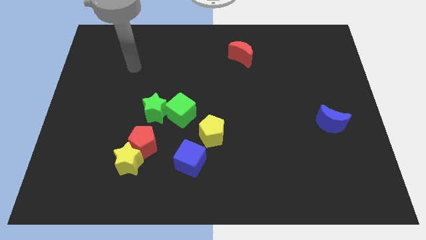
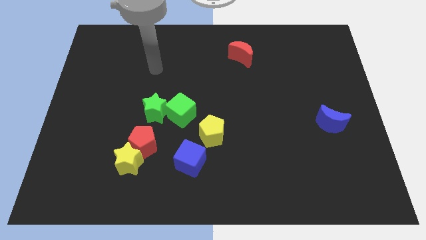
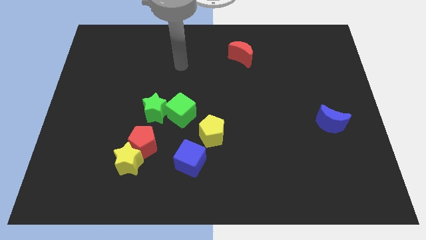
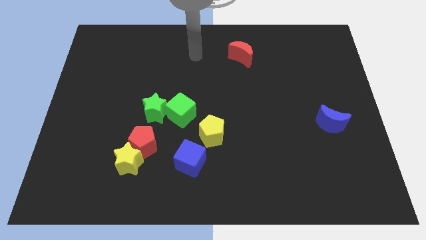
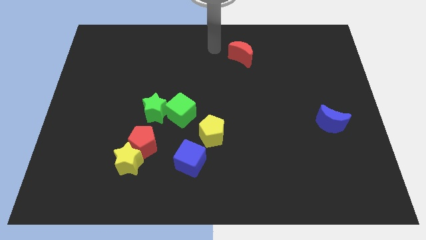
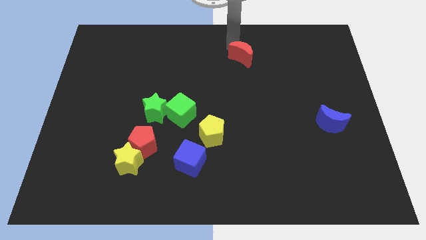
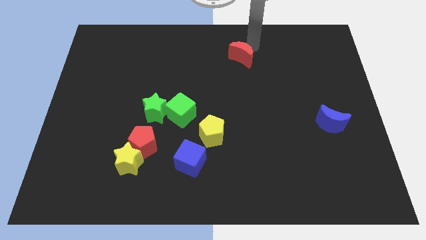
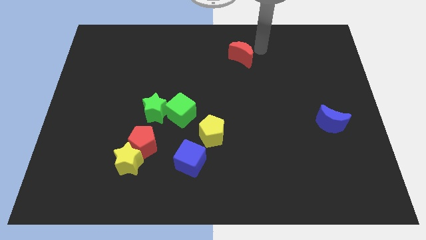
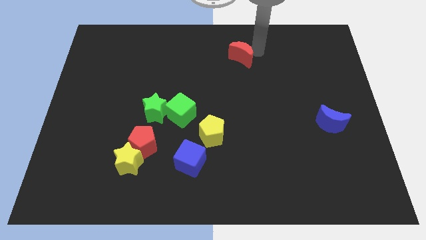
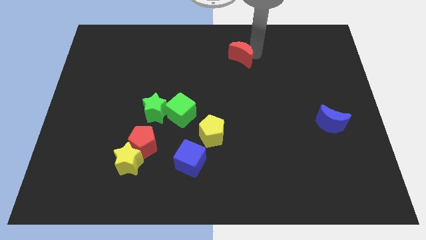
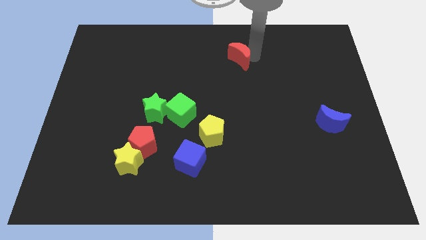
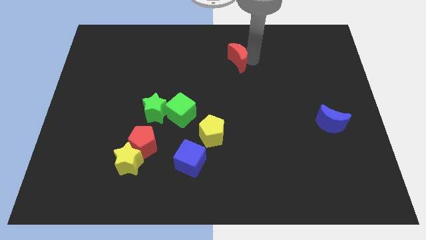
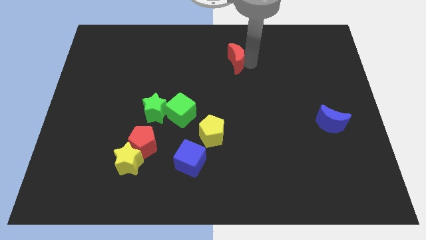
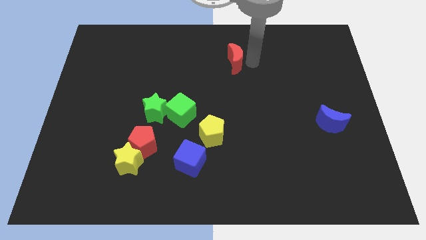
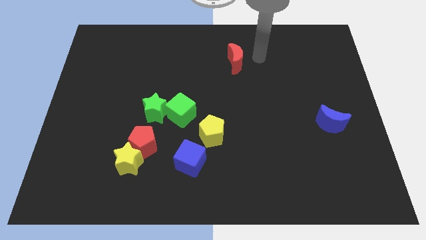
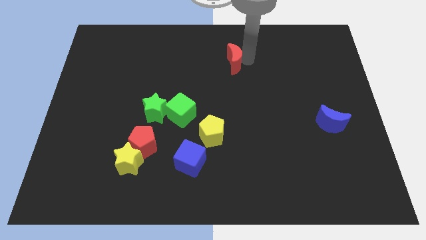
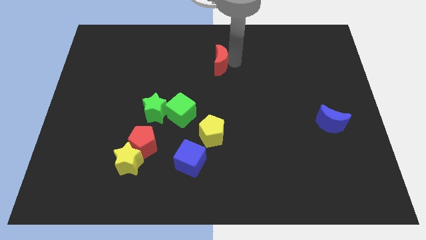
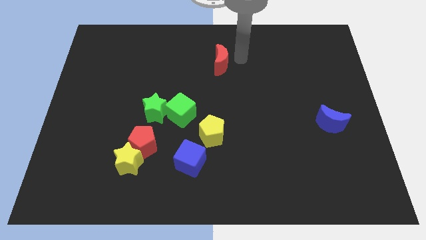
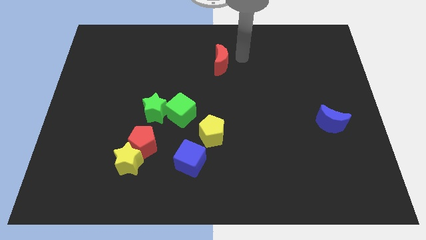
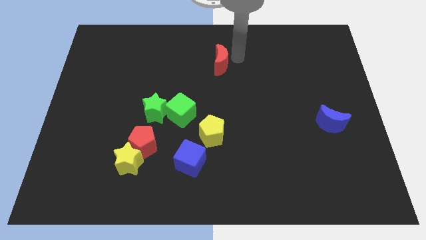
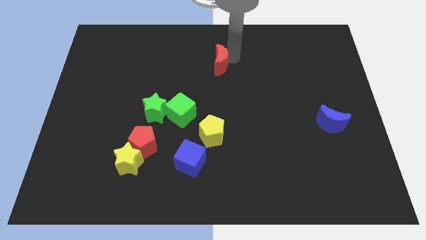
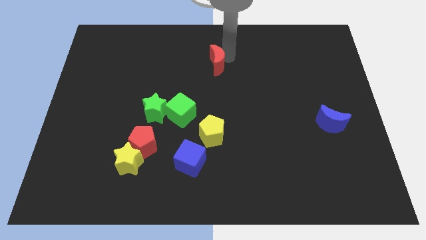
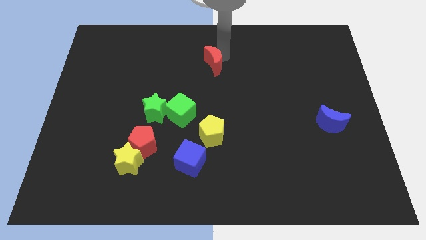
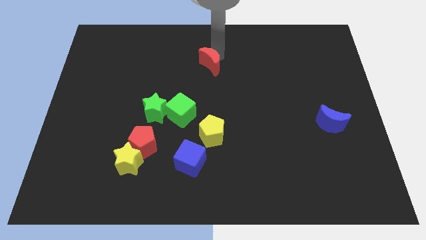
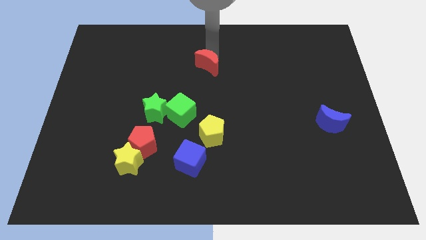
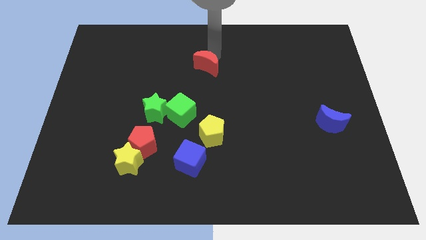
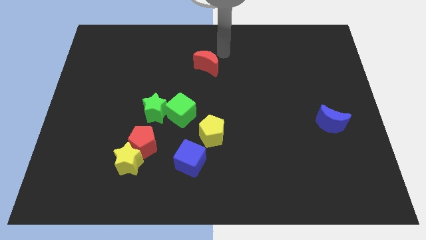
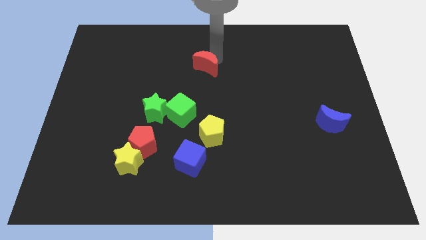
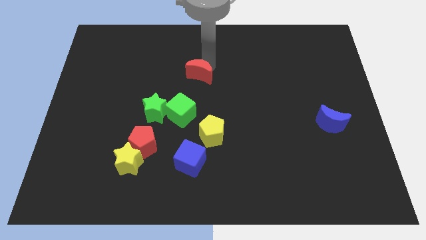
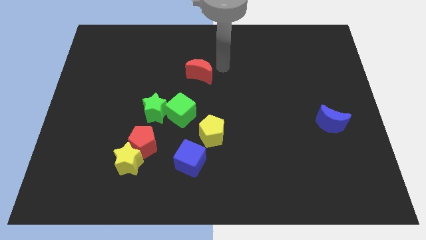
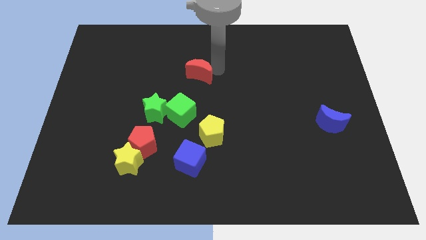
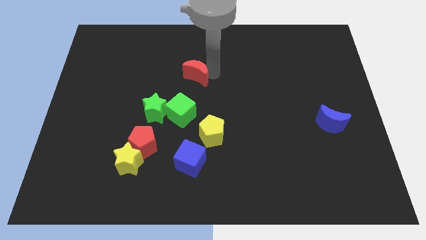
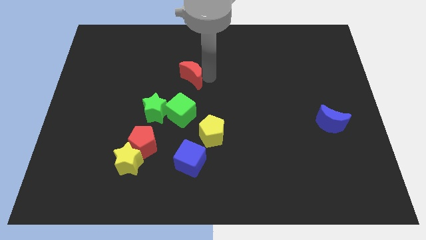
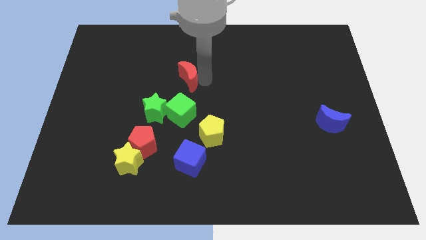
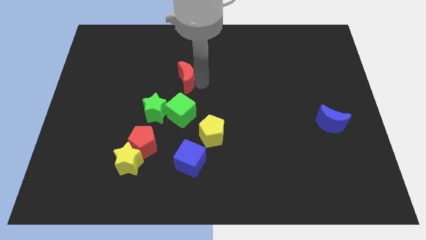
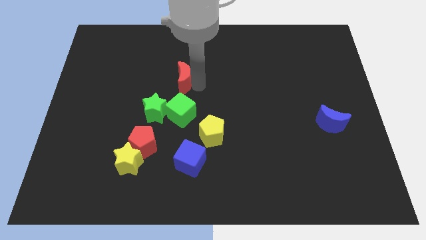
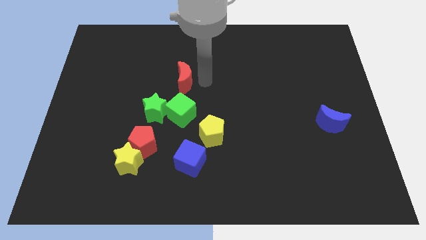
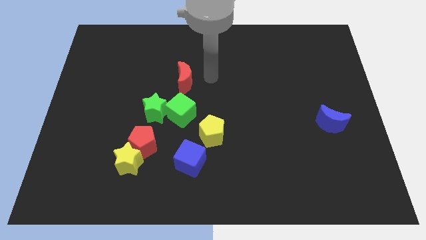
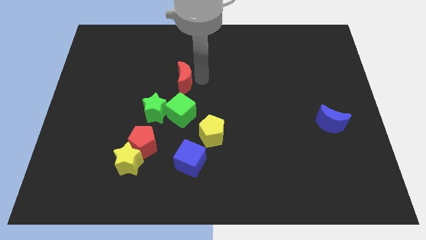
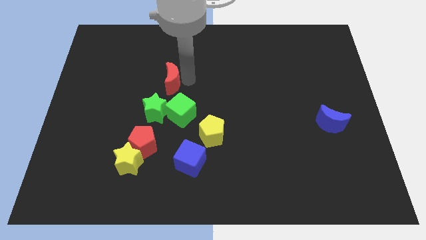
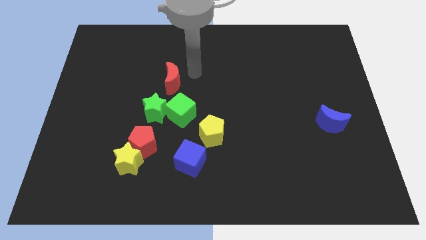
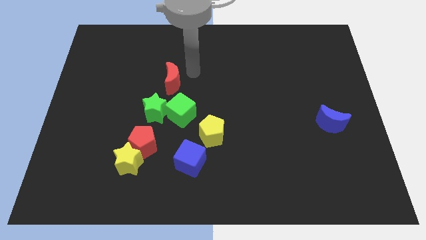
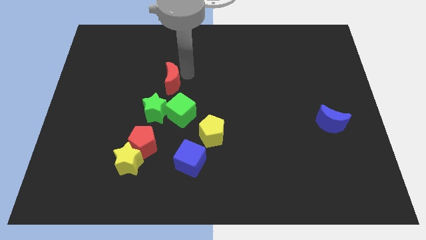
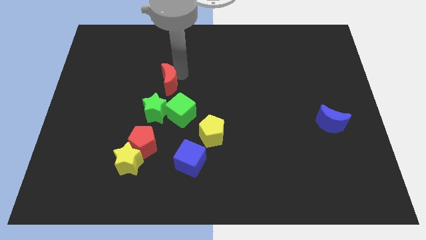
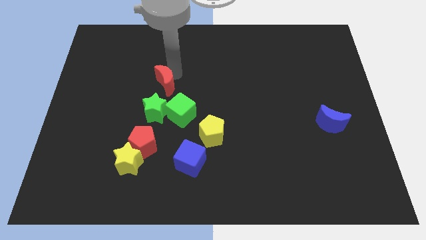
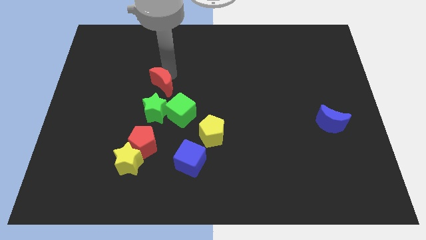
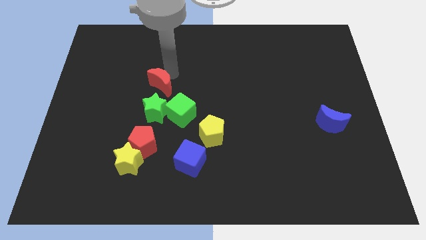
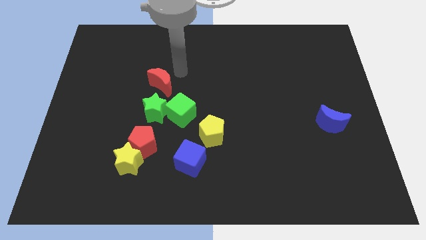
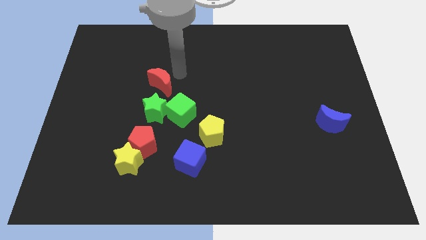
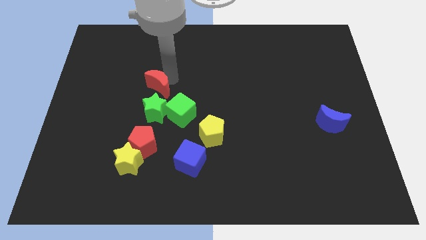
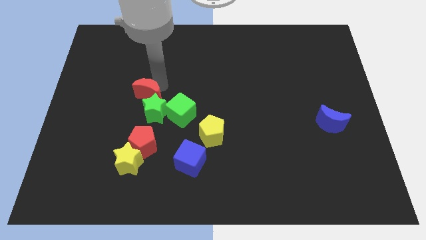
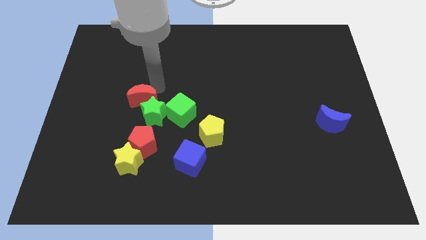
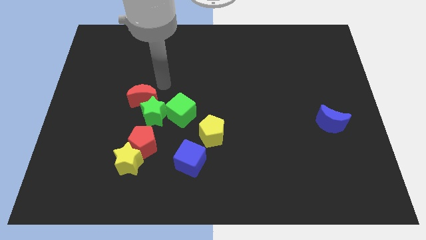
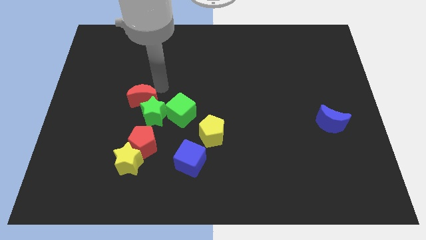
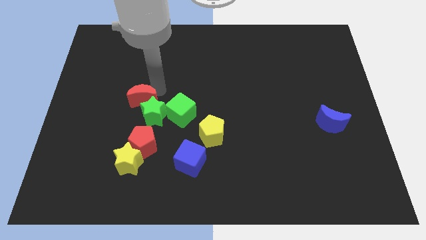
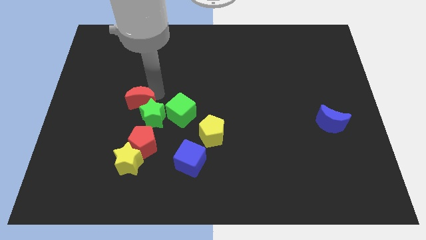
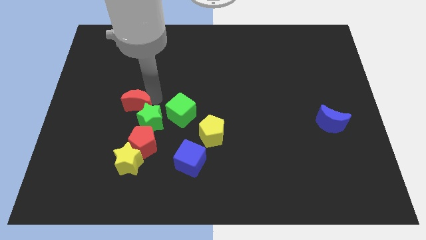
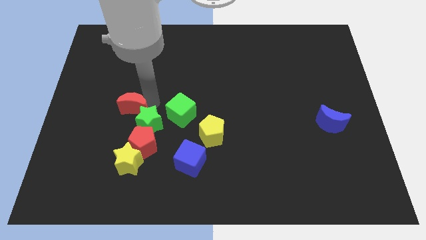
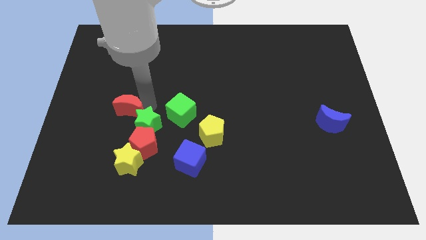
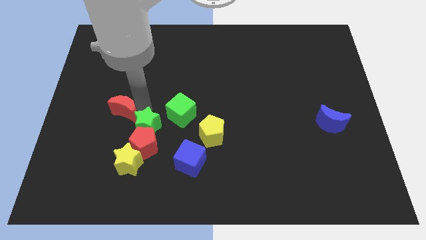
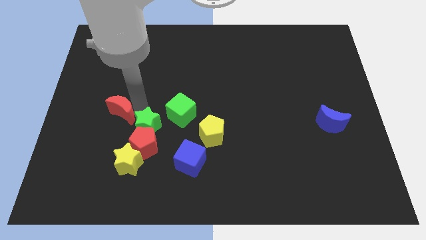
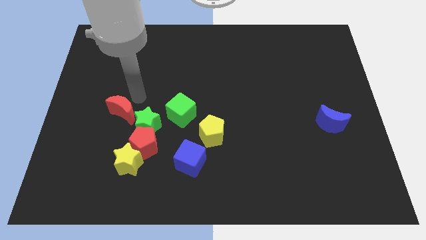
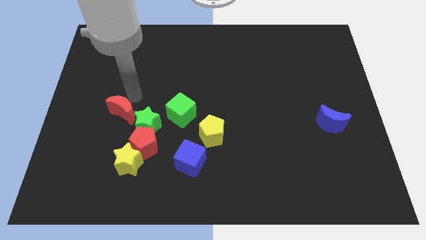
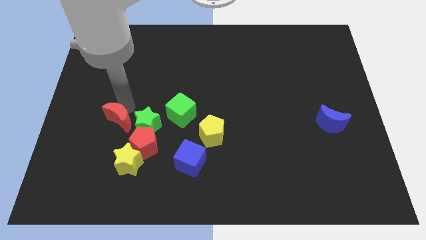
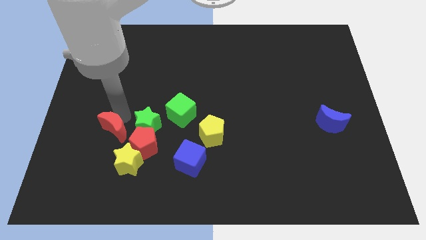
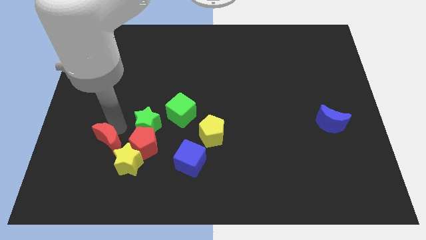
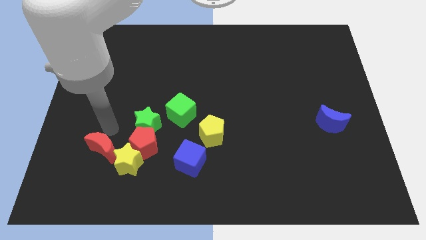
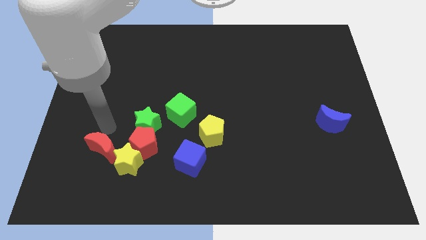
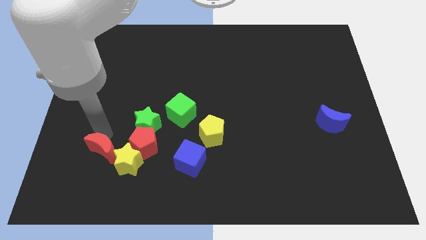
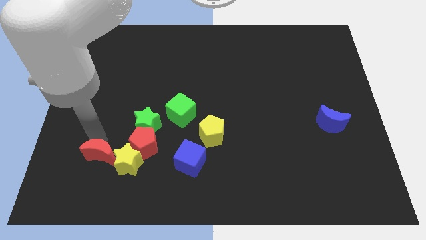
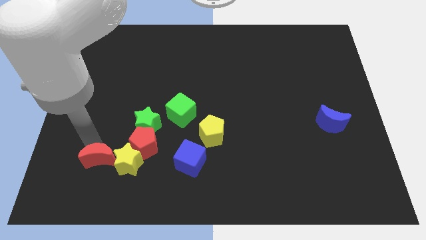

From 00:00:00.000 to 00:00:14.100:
put the red moon to the bottom left side of the yellow star

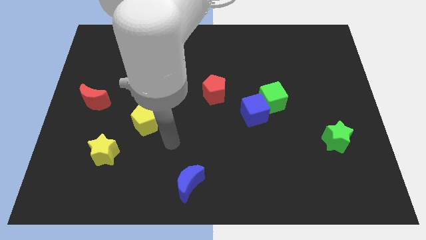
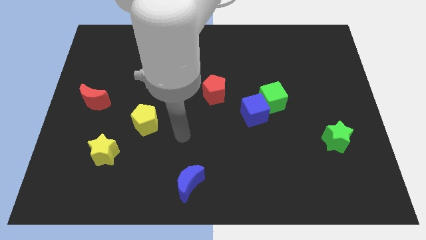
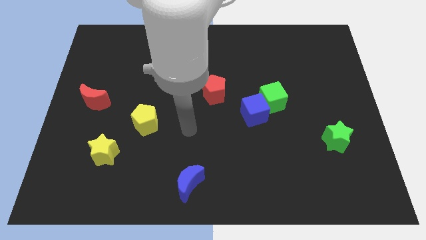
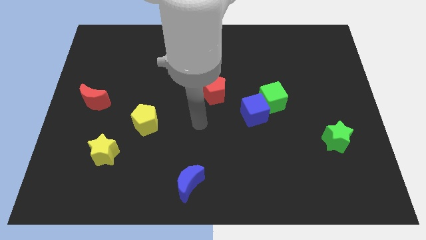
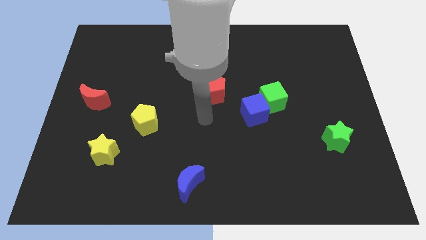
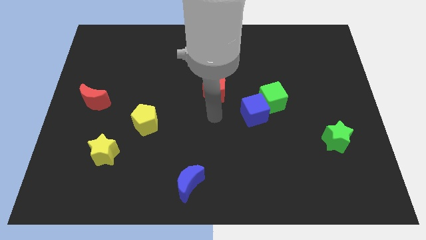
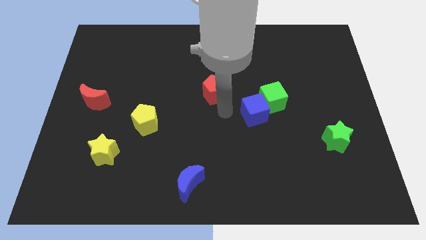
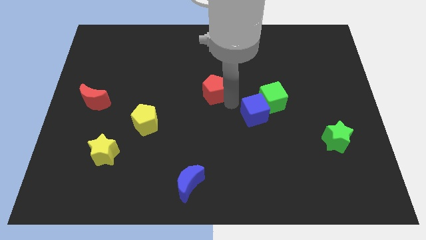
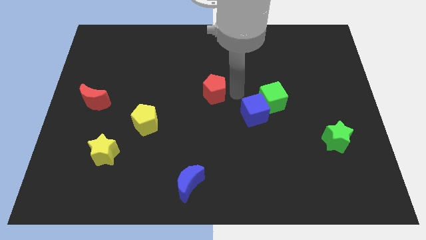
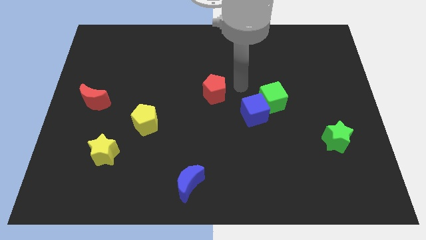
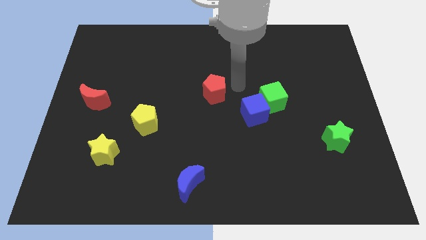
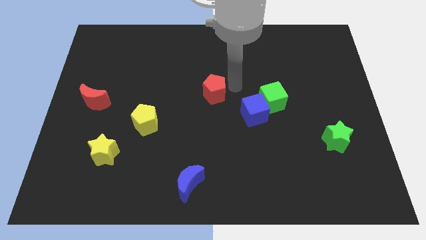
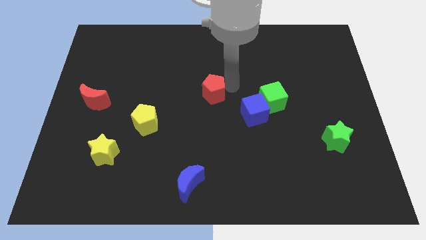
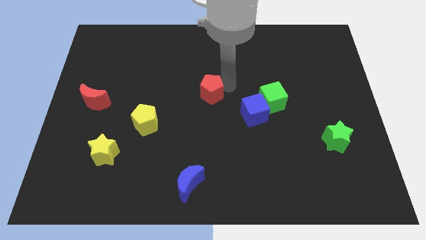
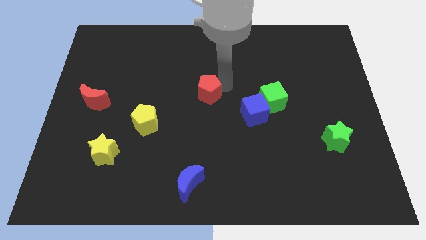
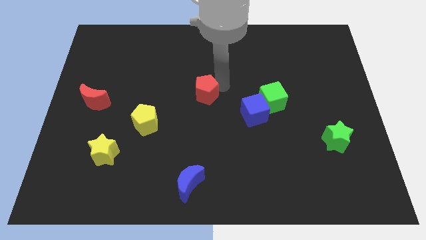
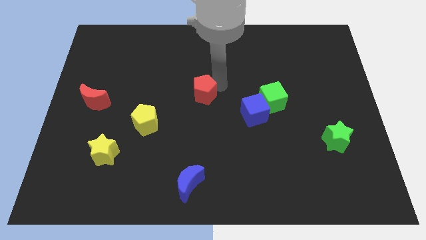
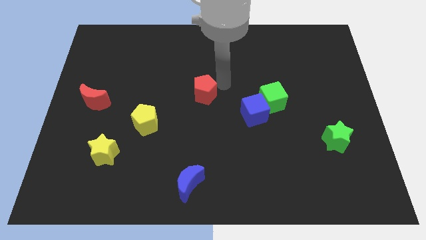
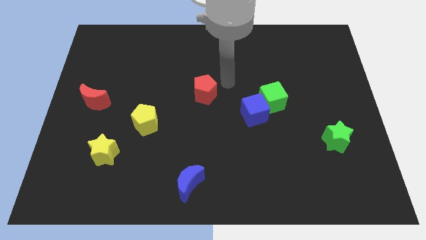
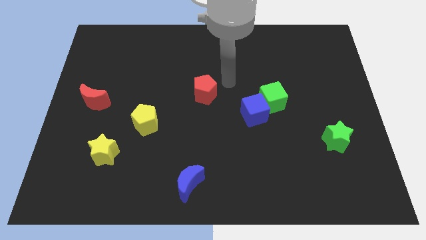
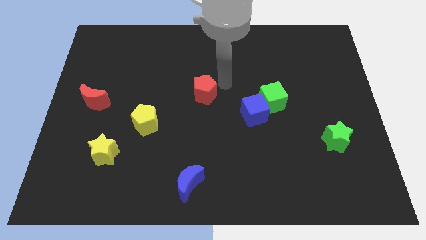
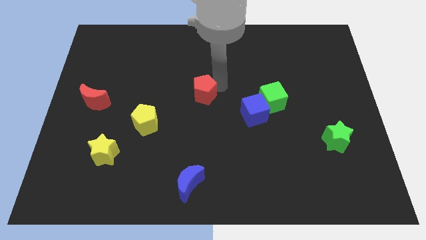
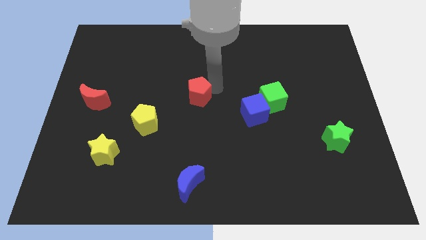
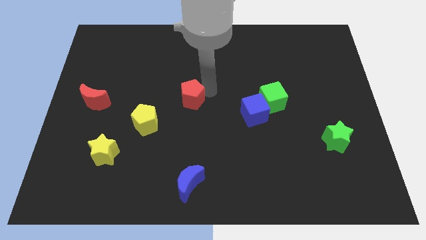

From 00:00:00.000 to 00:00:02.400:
slide the red pentagon to the top right side of the yellow pentagon
